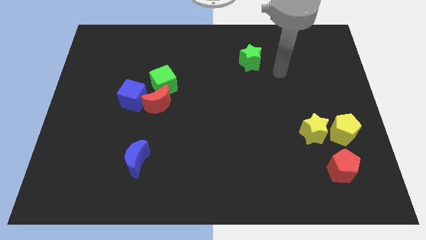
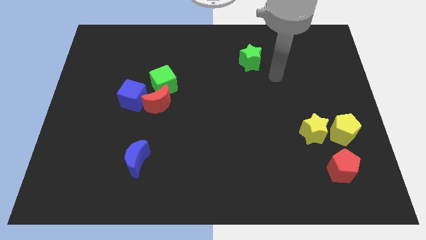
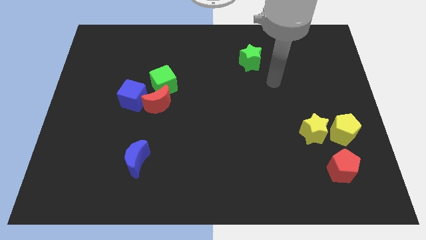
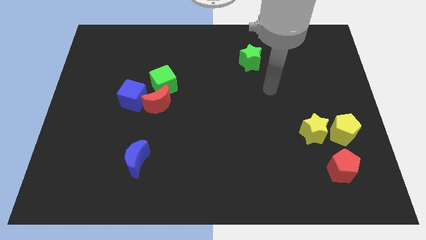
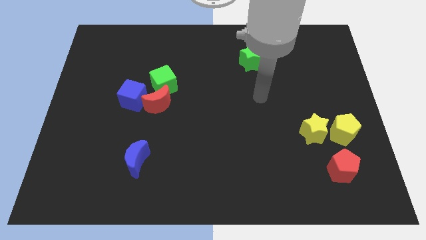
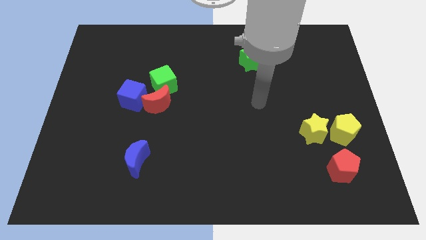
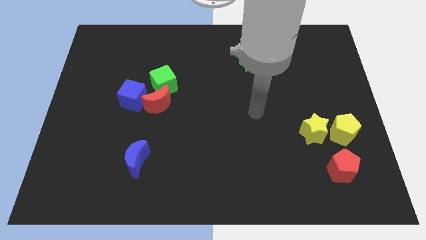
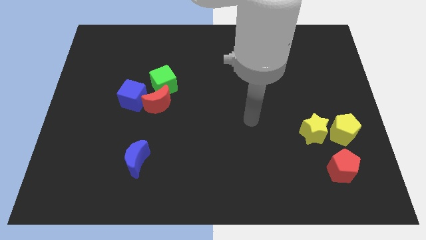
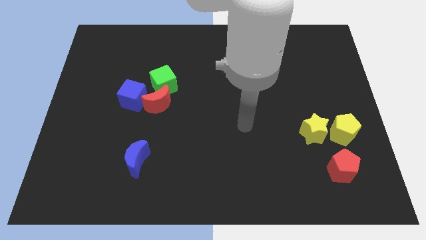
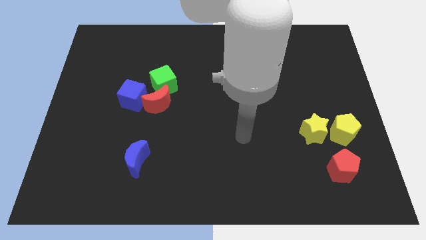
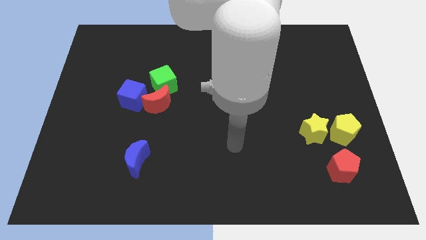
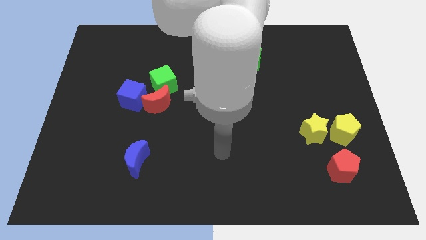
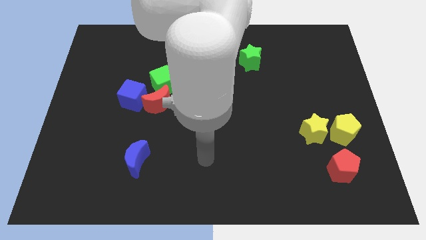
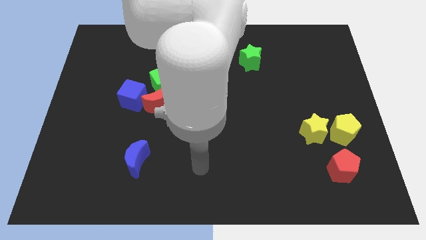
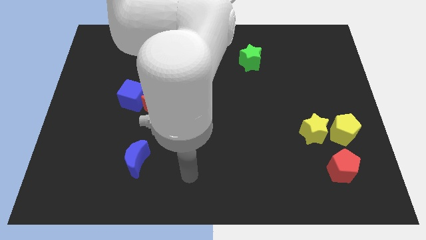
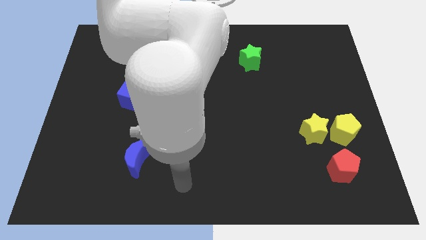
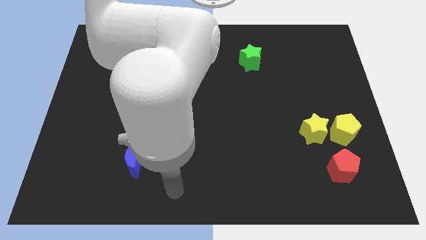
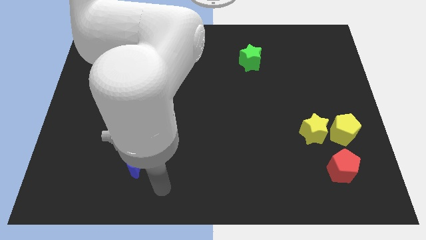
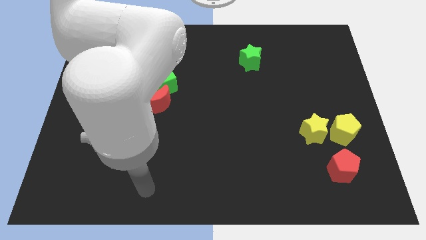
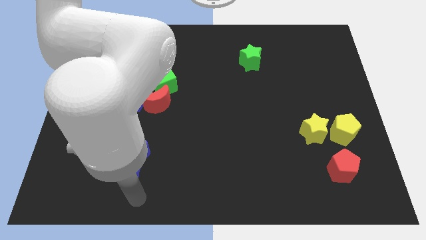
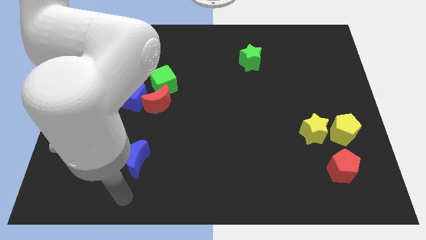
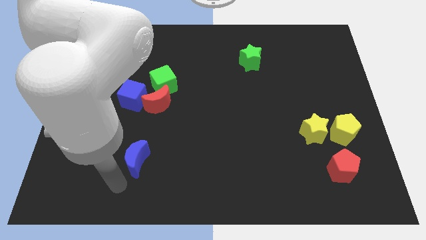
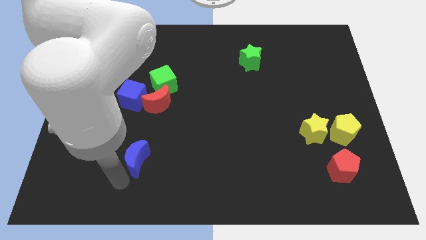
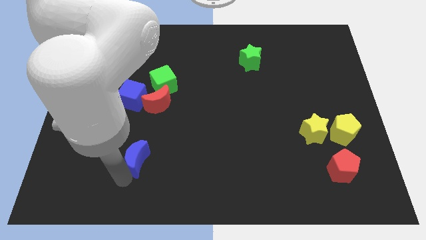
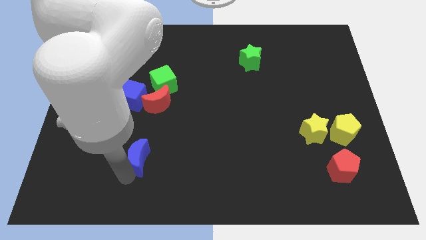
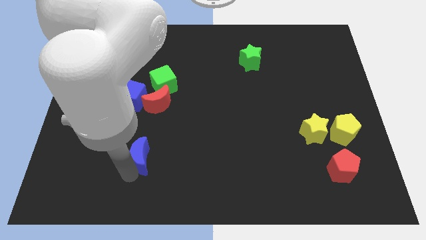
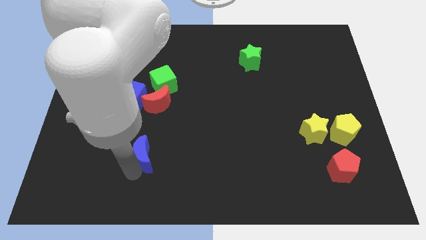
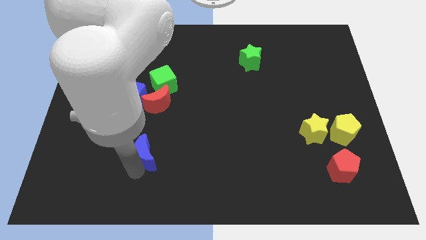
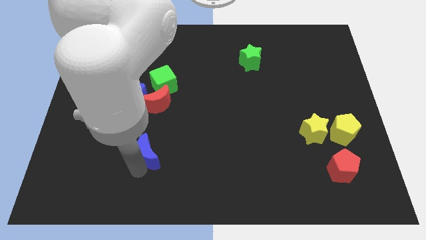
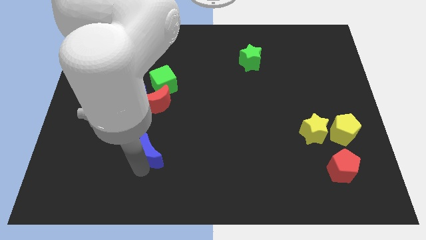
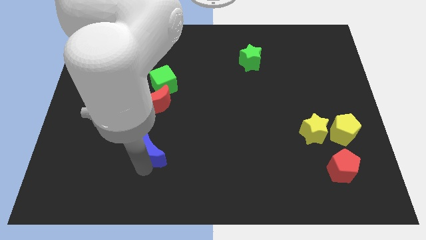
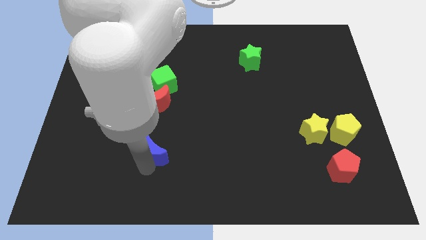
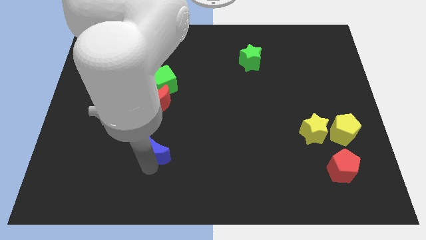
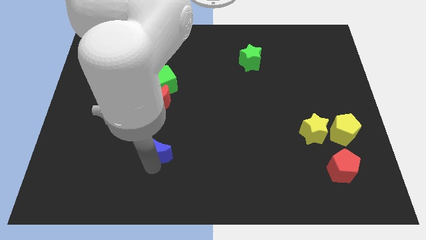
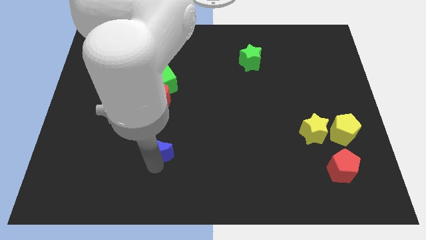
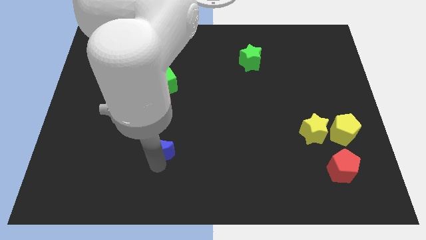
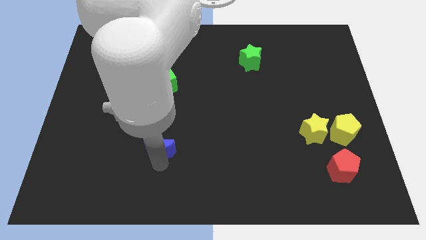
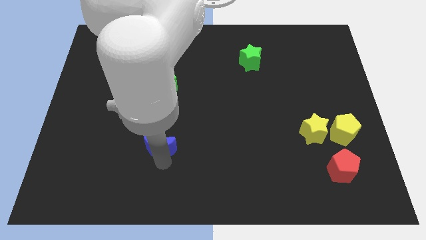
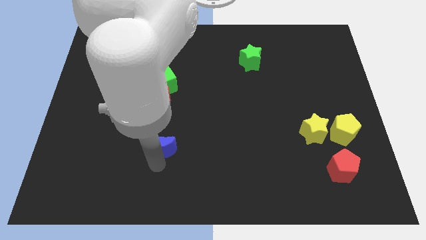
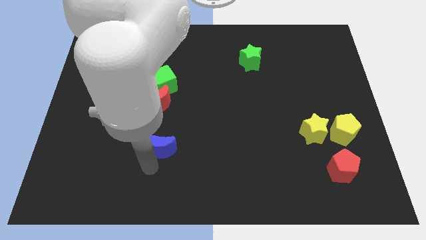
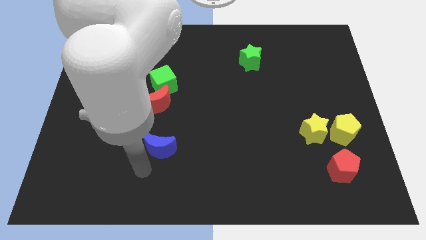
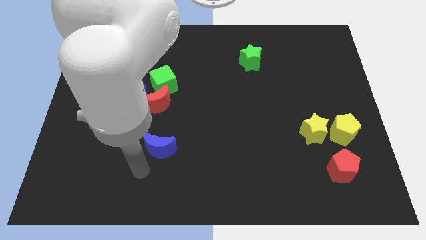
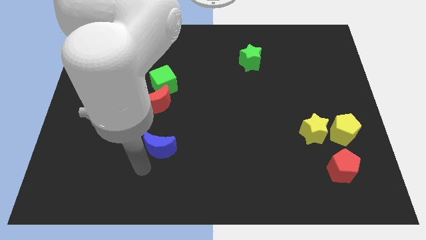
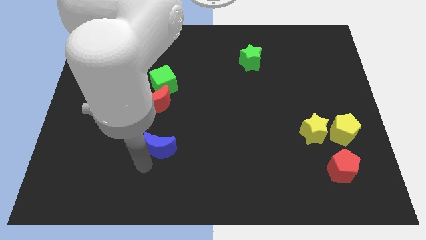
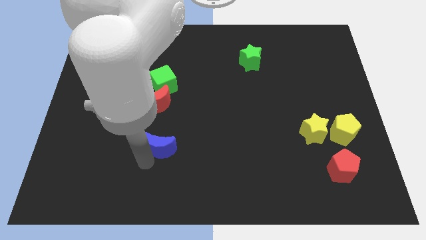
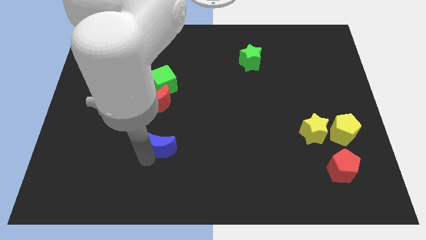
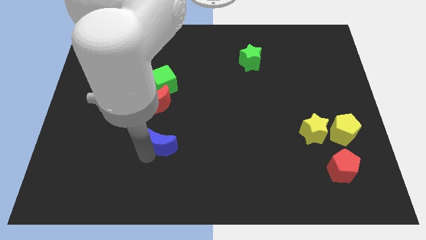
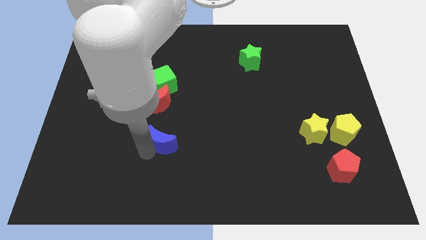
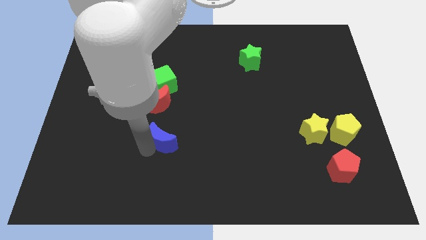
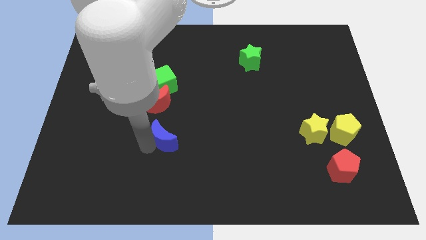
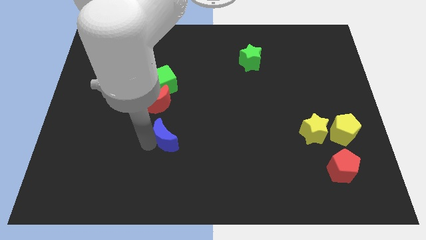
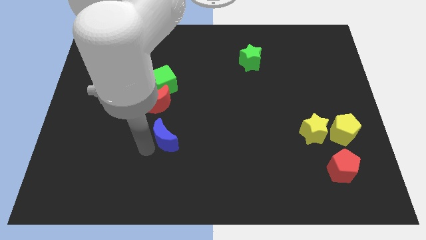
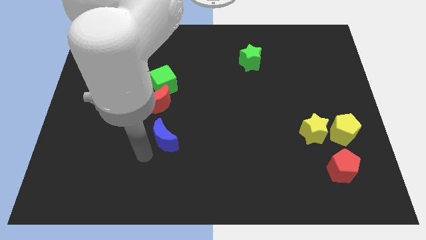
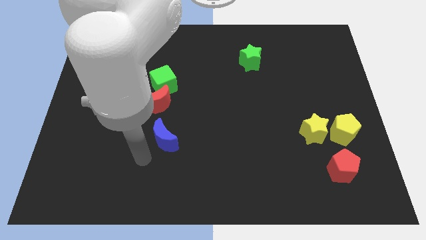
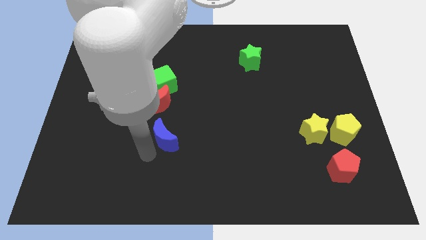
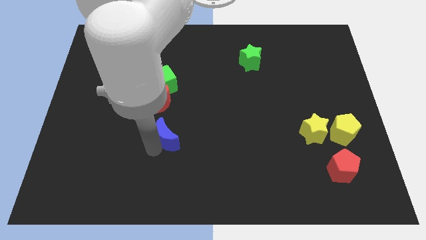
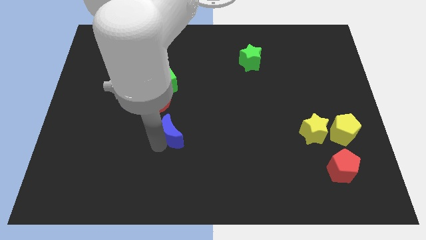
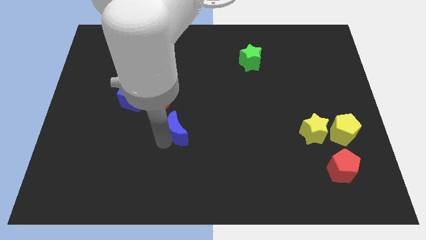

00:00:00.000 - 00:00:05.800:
slide the blue moon to the middle

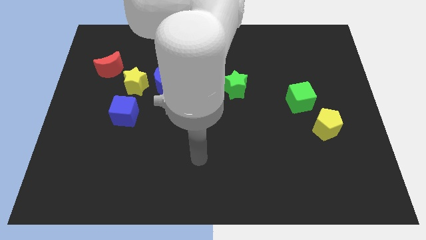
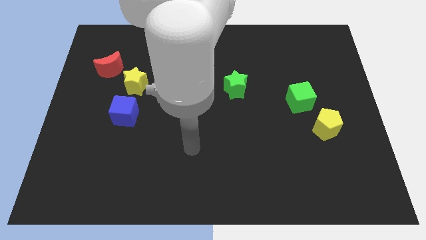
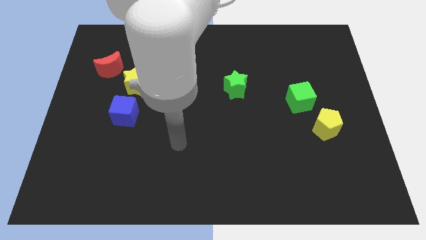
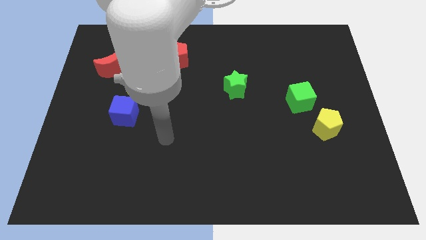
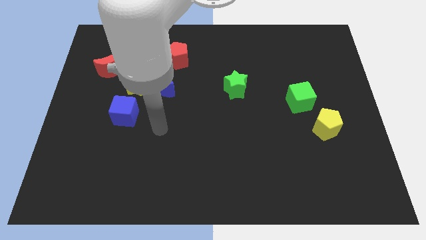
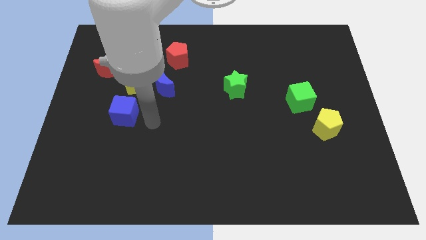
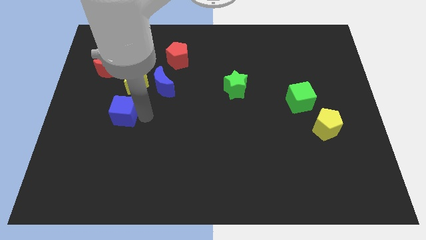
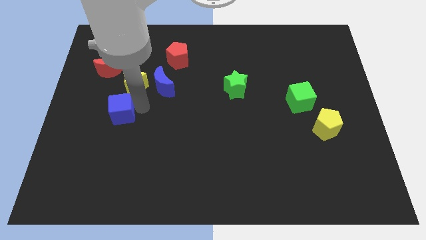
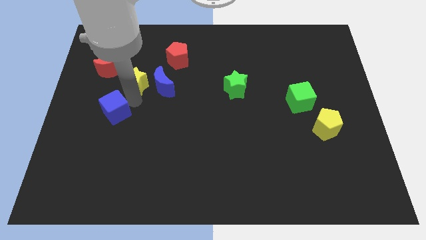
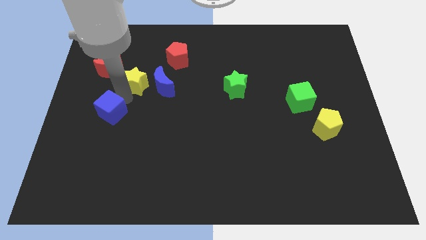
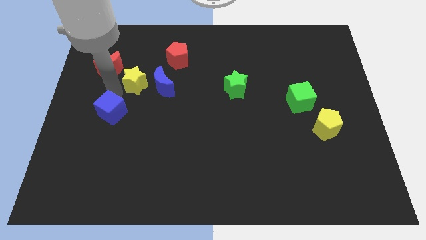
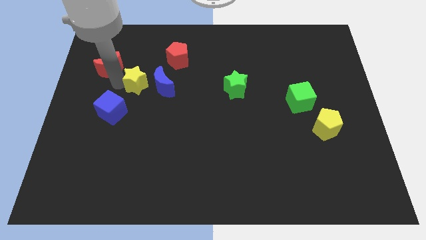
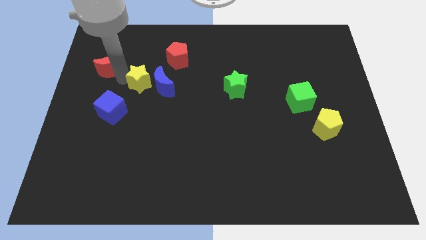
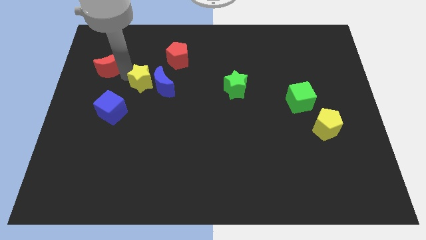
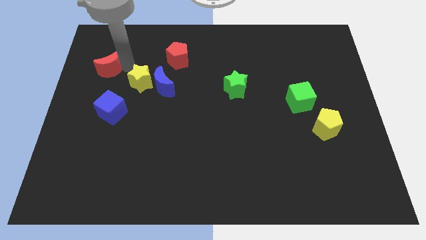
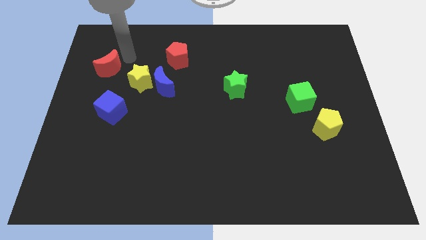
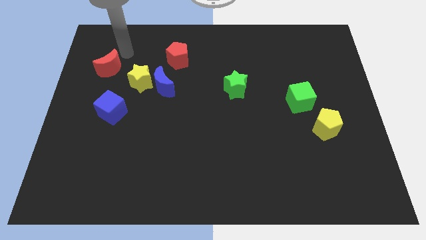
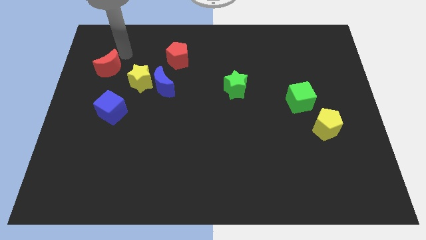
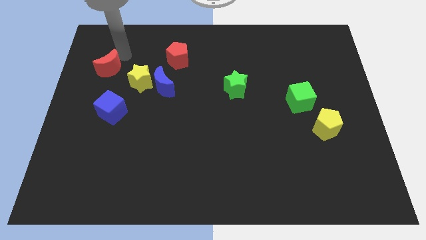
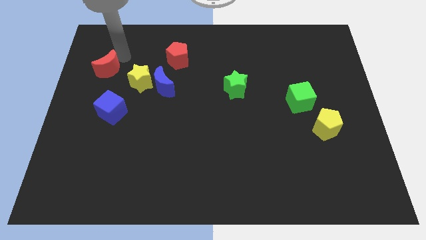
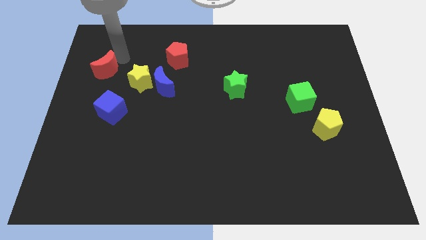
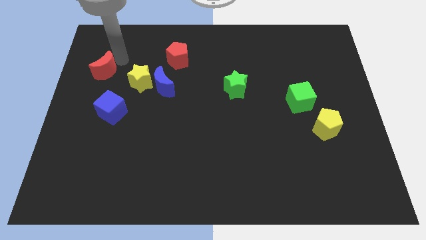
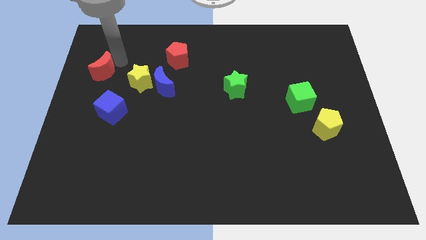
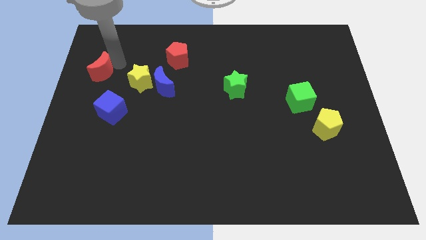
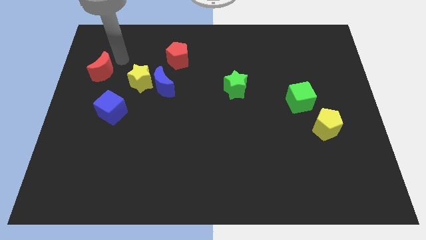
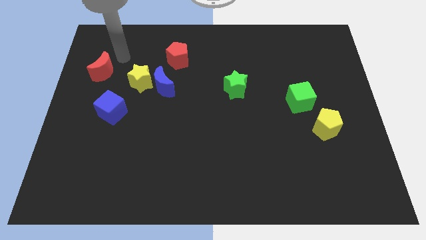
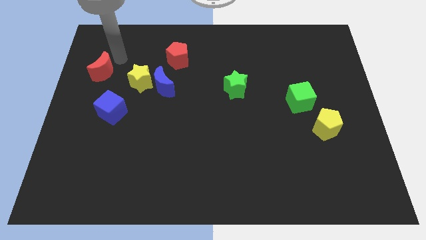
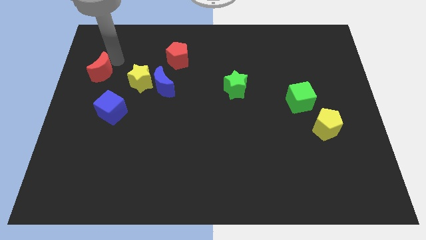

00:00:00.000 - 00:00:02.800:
slide the red moon to the left side of the board

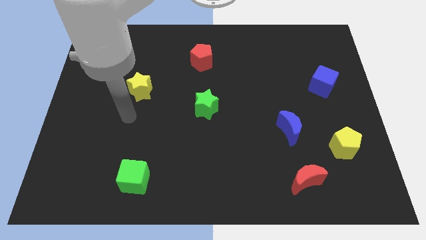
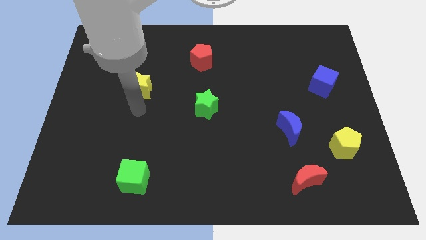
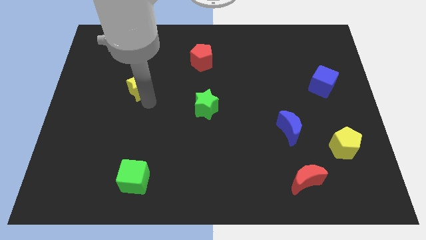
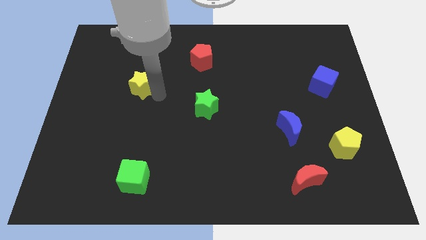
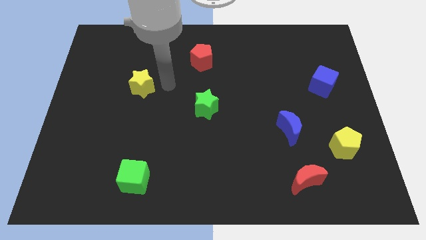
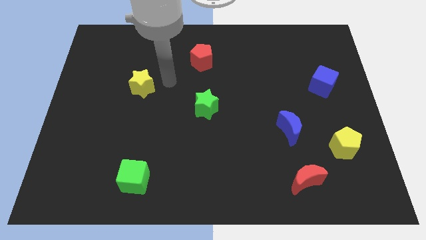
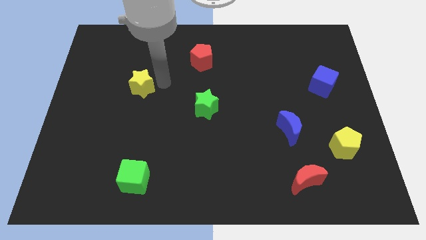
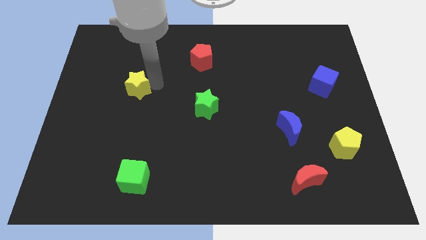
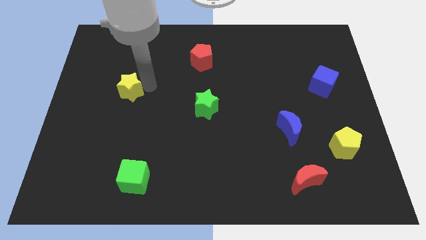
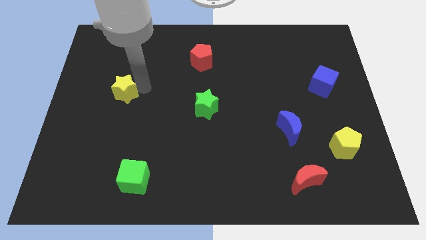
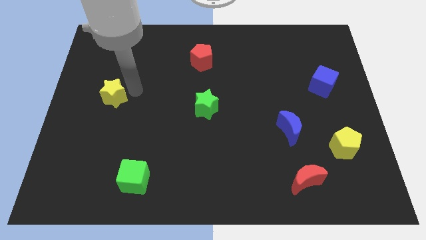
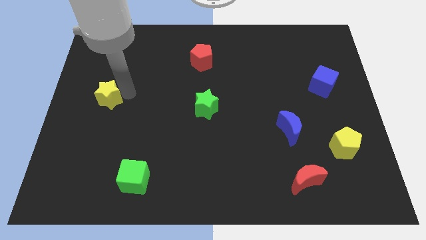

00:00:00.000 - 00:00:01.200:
push the yellow star to the center left
